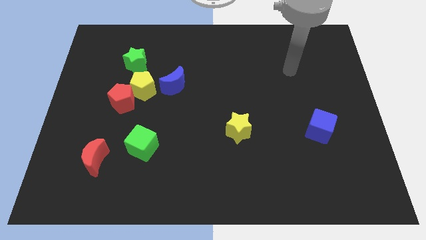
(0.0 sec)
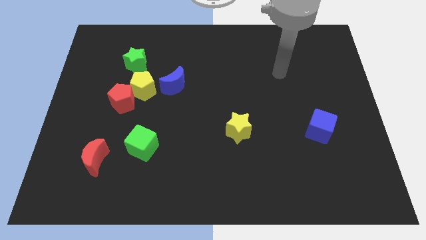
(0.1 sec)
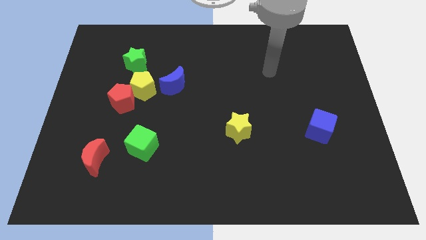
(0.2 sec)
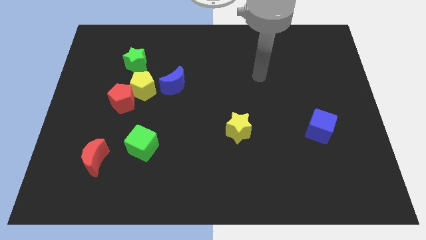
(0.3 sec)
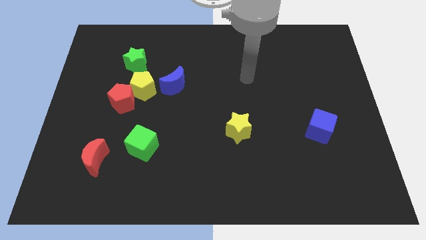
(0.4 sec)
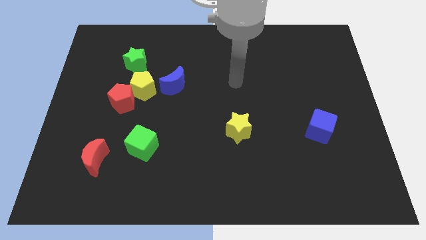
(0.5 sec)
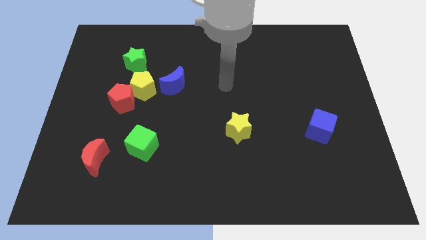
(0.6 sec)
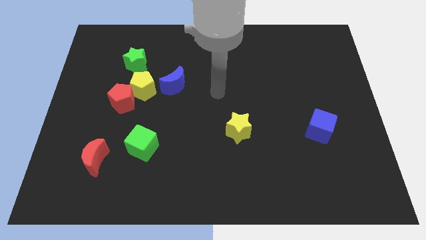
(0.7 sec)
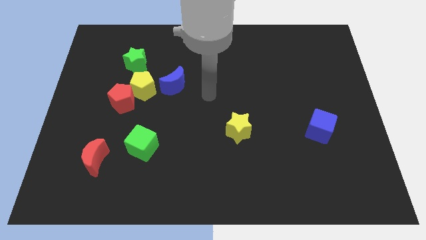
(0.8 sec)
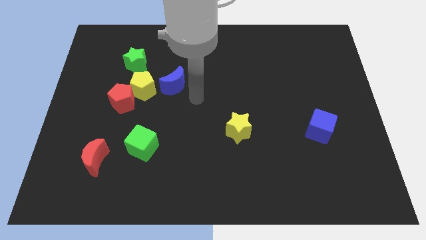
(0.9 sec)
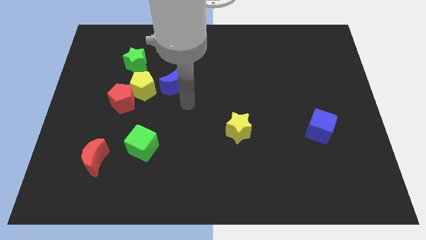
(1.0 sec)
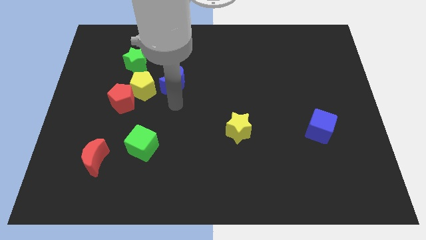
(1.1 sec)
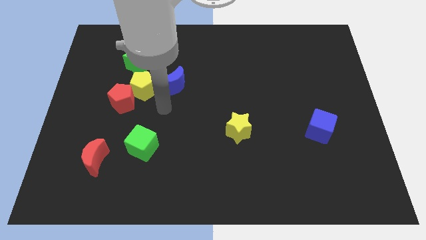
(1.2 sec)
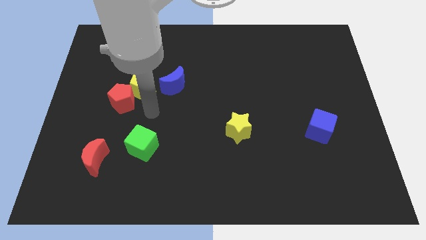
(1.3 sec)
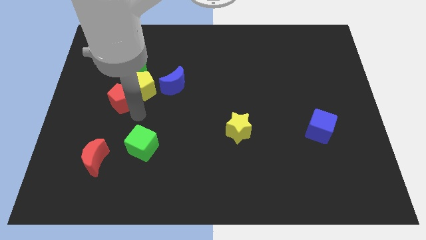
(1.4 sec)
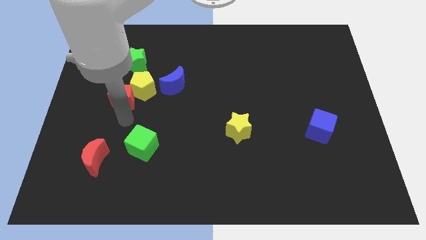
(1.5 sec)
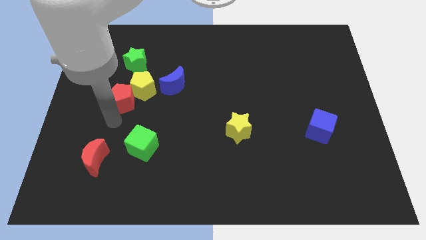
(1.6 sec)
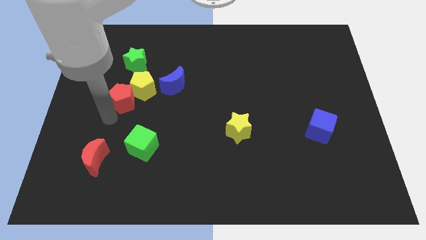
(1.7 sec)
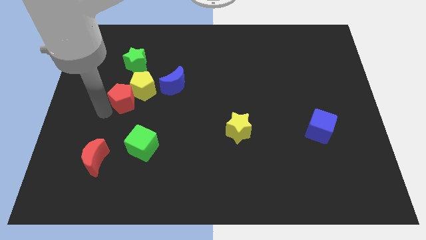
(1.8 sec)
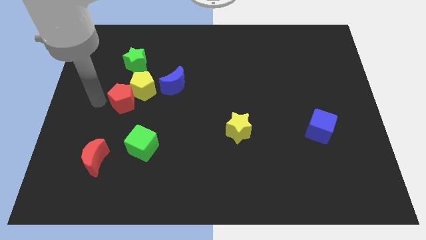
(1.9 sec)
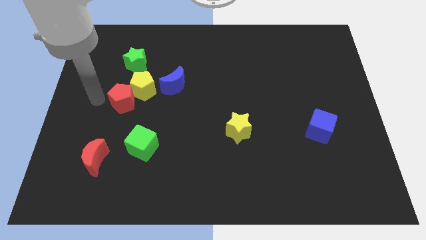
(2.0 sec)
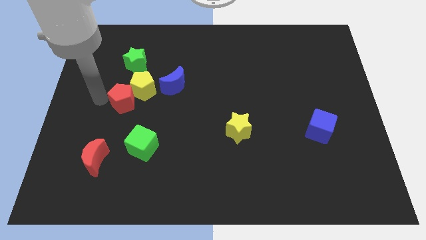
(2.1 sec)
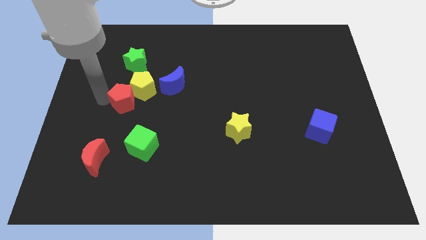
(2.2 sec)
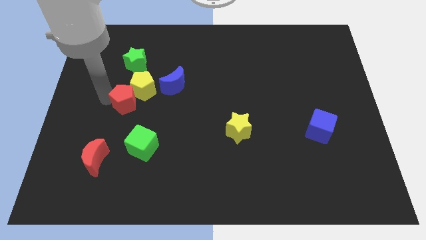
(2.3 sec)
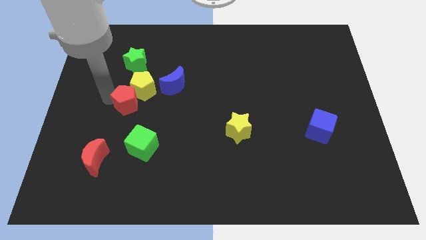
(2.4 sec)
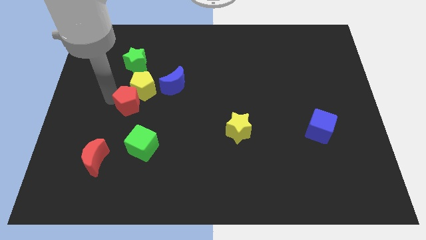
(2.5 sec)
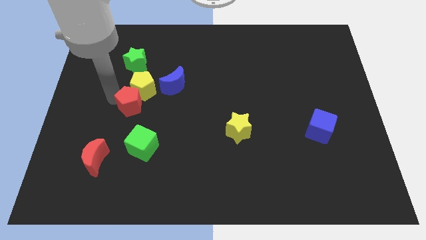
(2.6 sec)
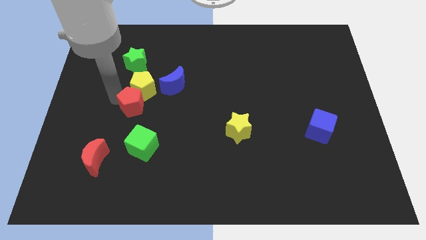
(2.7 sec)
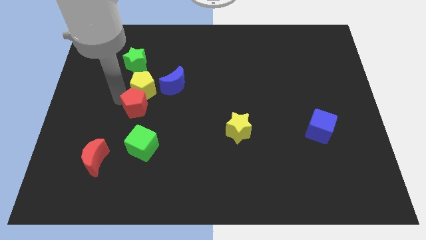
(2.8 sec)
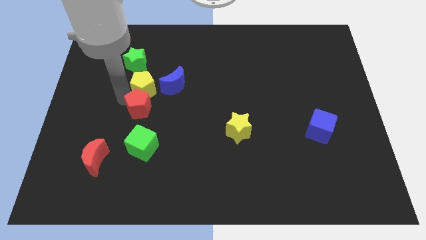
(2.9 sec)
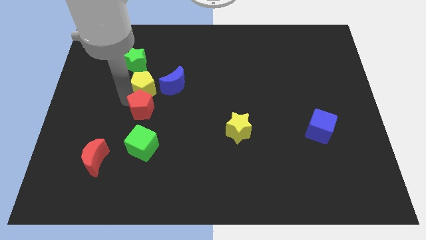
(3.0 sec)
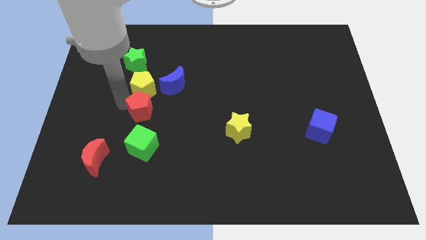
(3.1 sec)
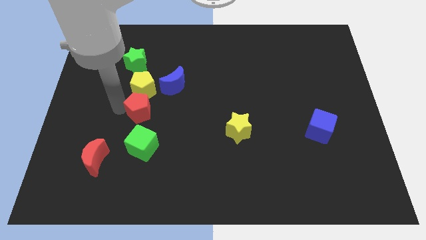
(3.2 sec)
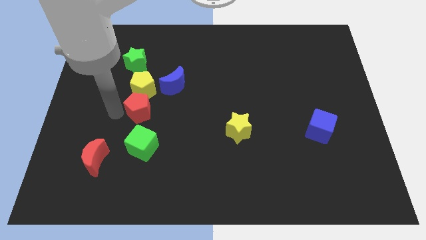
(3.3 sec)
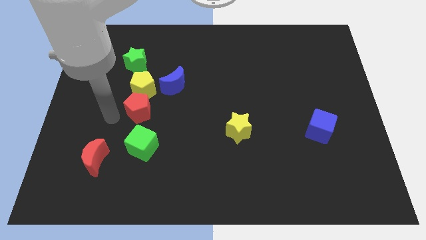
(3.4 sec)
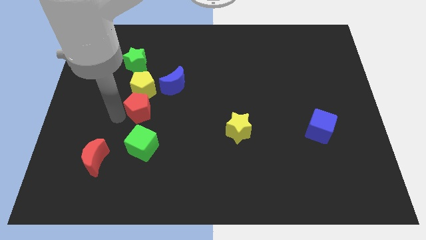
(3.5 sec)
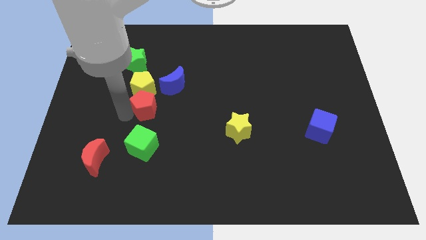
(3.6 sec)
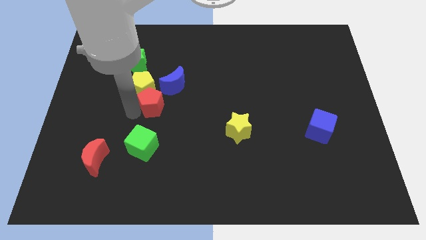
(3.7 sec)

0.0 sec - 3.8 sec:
push the red pentagon right slightly

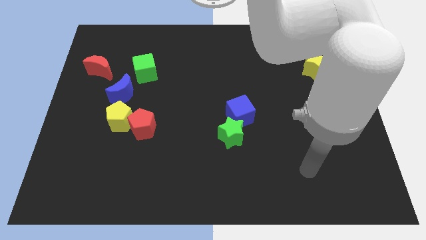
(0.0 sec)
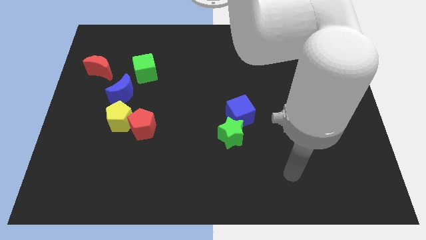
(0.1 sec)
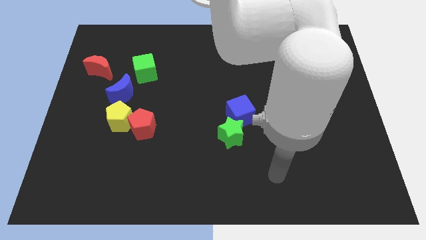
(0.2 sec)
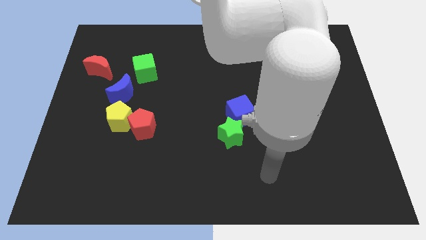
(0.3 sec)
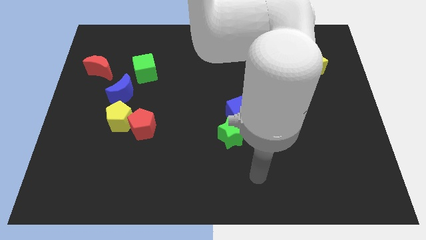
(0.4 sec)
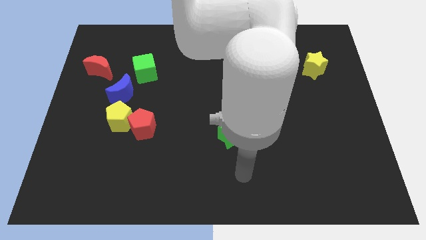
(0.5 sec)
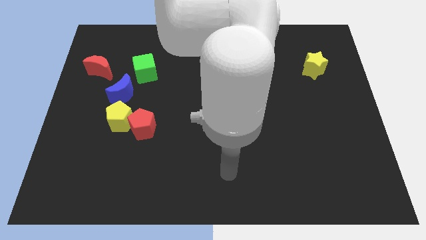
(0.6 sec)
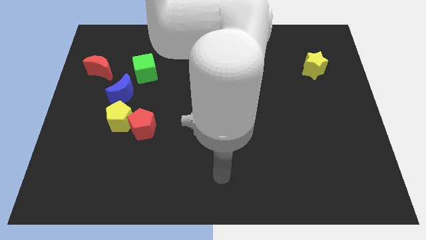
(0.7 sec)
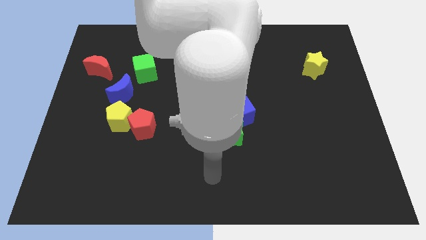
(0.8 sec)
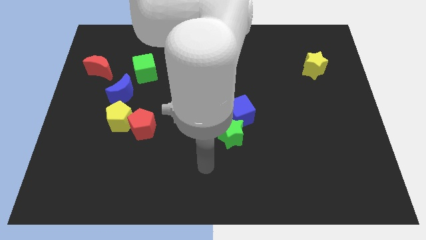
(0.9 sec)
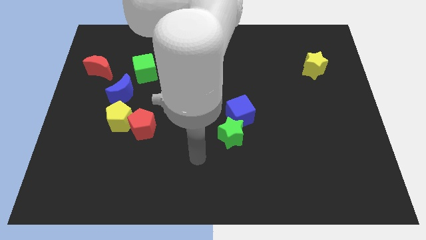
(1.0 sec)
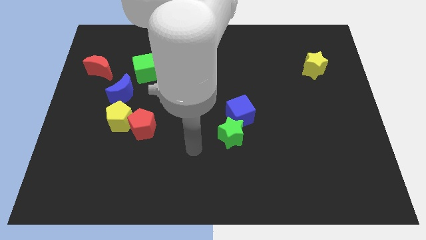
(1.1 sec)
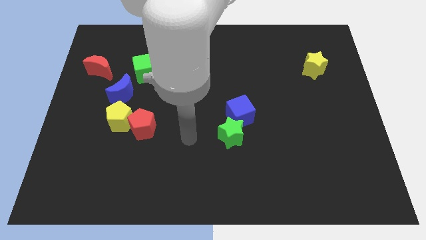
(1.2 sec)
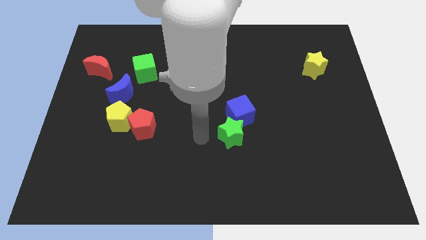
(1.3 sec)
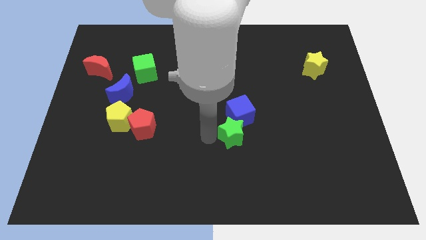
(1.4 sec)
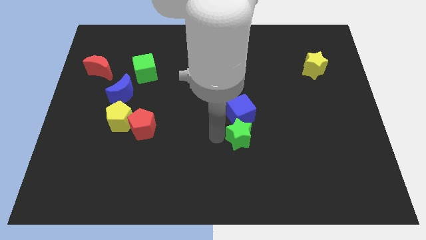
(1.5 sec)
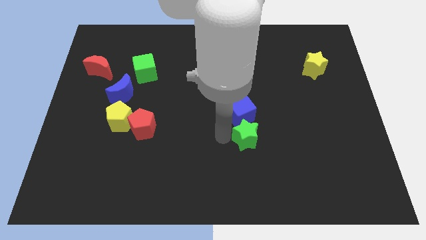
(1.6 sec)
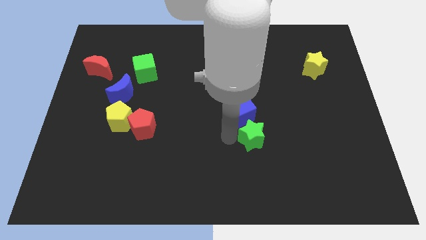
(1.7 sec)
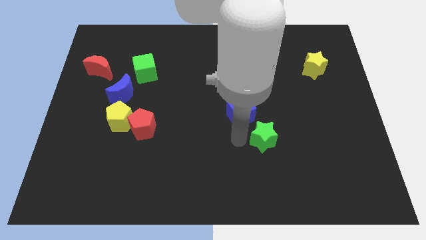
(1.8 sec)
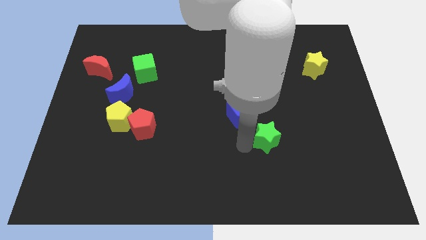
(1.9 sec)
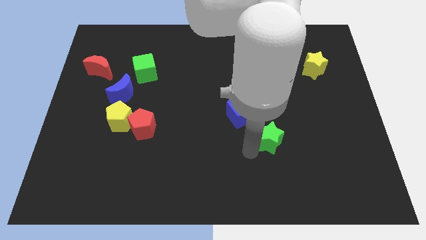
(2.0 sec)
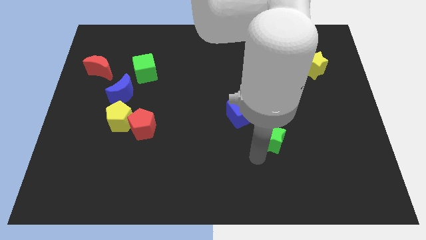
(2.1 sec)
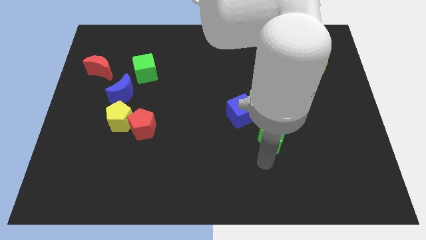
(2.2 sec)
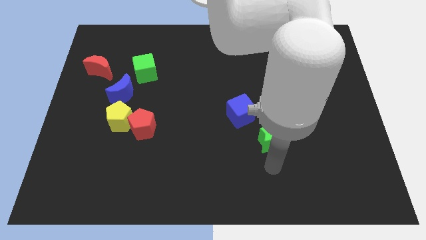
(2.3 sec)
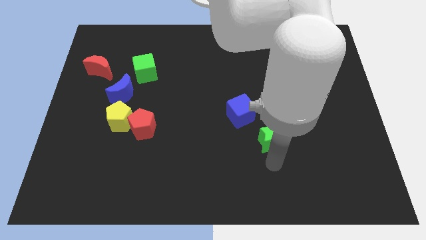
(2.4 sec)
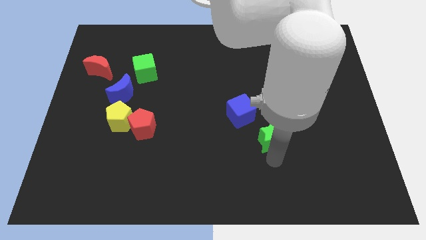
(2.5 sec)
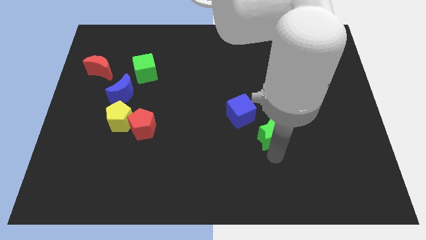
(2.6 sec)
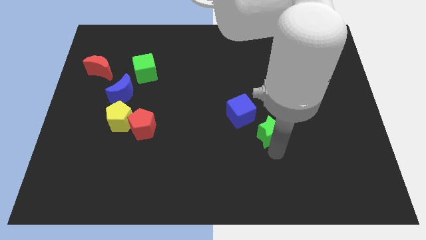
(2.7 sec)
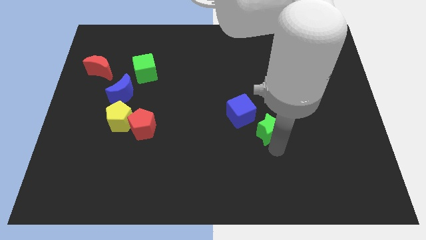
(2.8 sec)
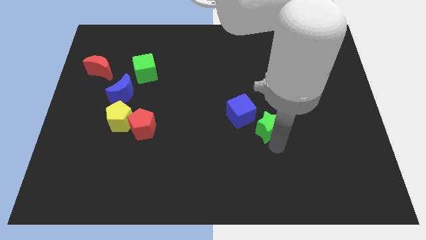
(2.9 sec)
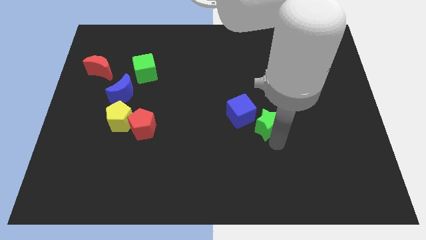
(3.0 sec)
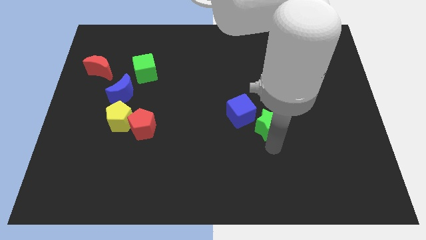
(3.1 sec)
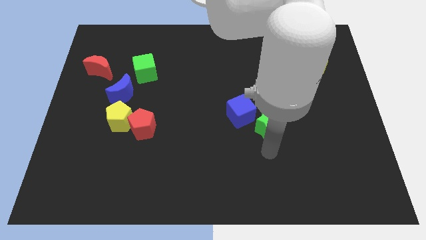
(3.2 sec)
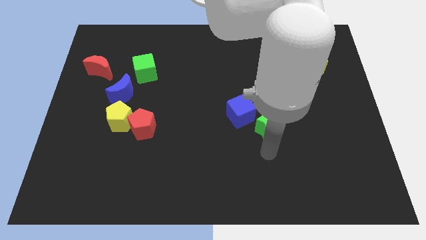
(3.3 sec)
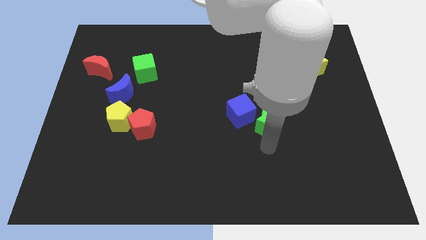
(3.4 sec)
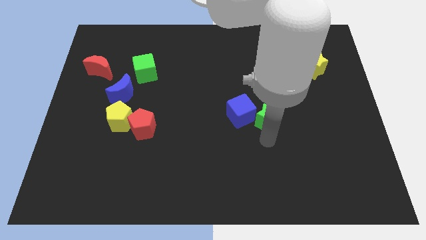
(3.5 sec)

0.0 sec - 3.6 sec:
slightly push the green star up and then to the right

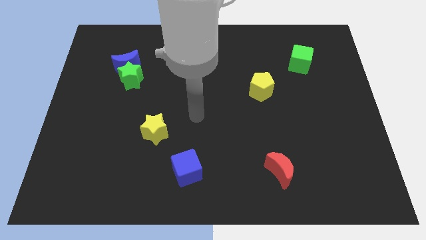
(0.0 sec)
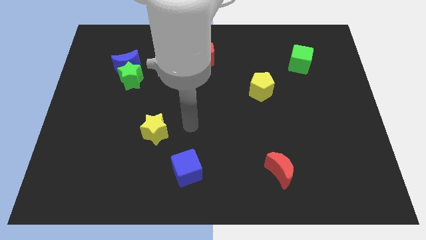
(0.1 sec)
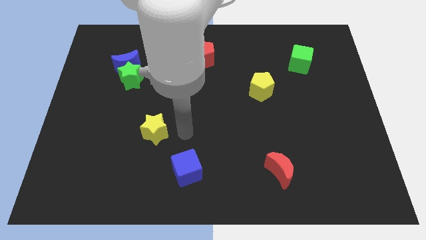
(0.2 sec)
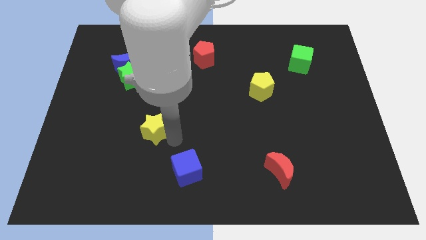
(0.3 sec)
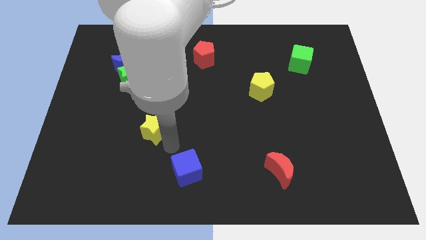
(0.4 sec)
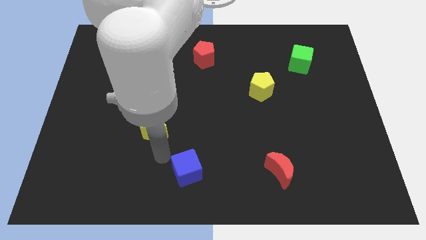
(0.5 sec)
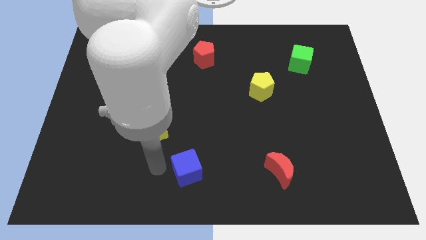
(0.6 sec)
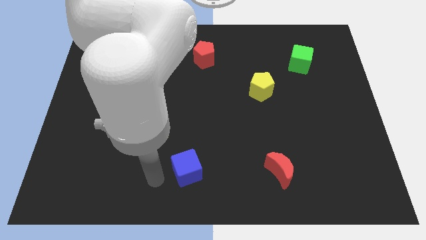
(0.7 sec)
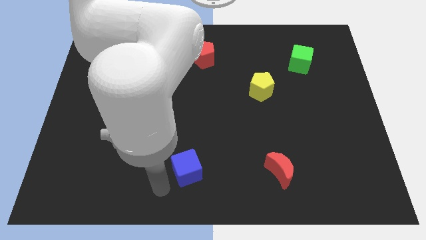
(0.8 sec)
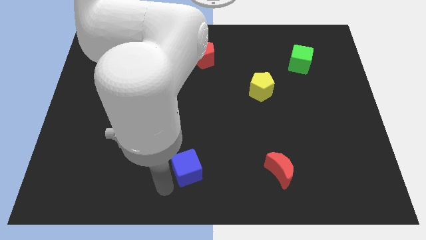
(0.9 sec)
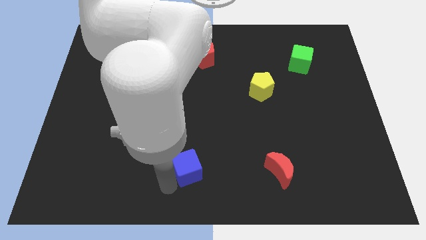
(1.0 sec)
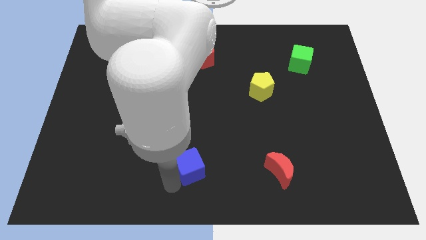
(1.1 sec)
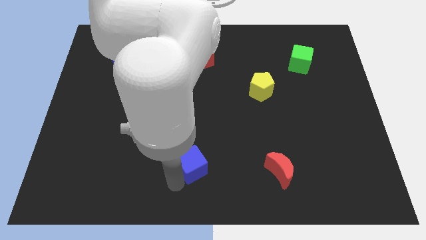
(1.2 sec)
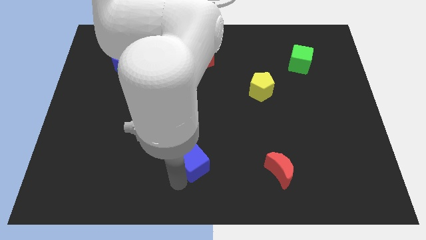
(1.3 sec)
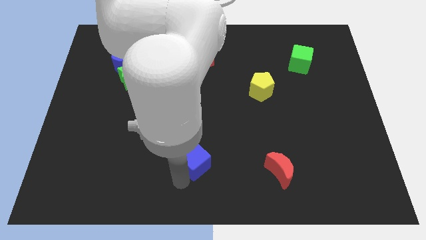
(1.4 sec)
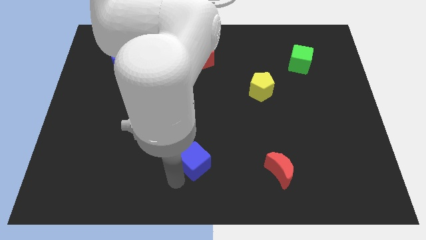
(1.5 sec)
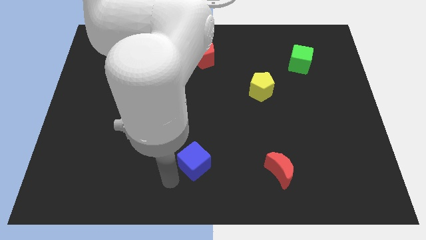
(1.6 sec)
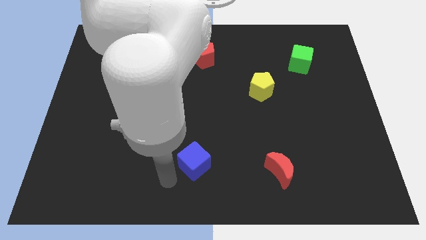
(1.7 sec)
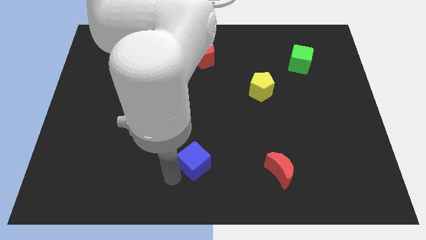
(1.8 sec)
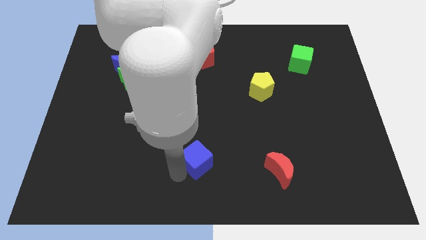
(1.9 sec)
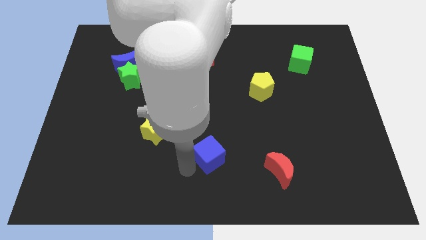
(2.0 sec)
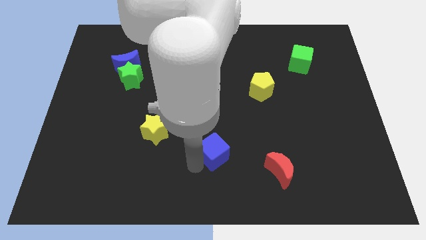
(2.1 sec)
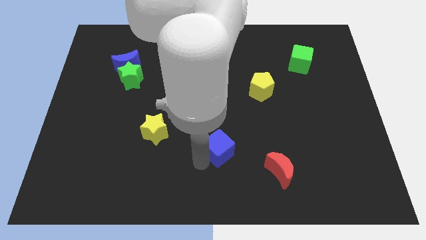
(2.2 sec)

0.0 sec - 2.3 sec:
move the blue cube up and then right somewhat
